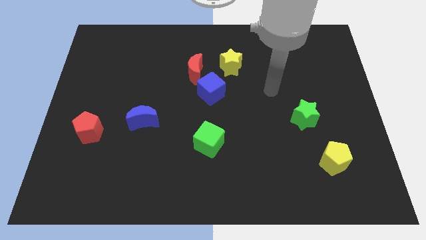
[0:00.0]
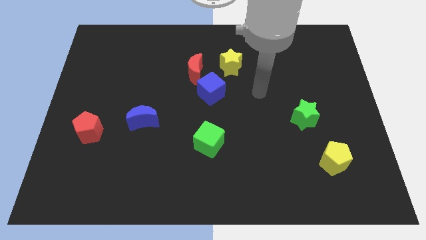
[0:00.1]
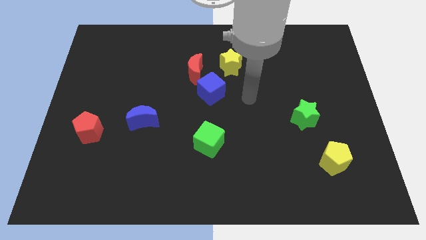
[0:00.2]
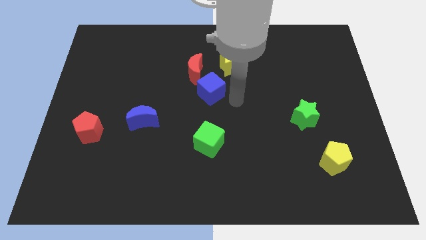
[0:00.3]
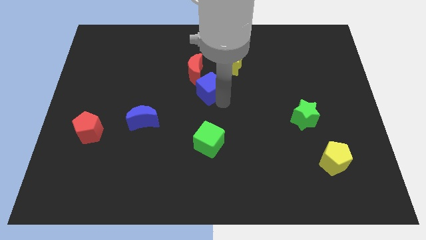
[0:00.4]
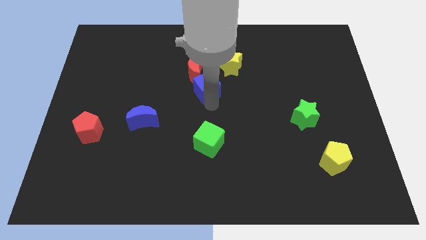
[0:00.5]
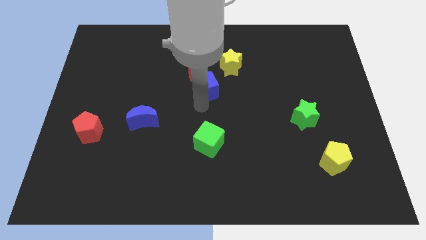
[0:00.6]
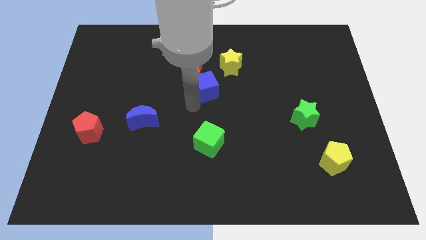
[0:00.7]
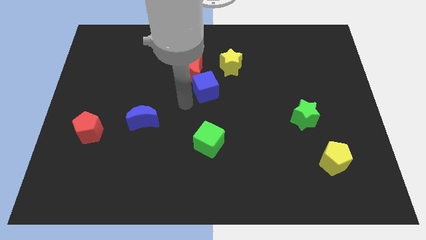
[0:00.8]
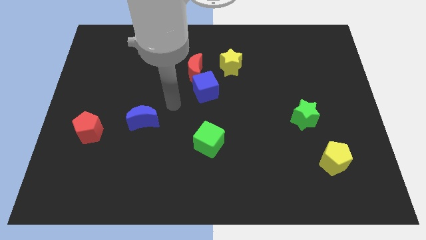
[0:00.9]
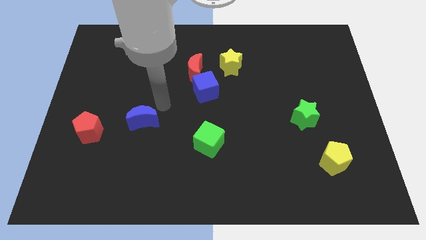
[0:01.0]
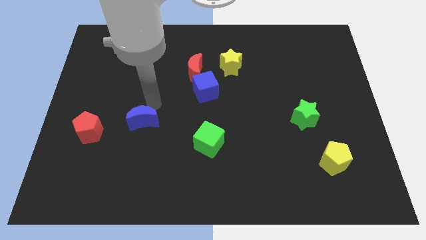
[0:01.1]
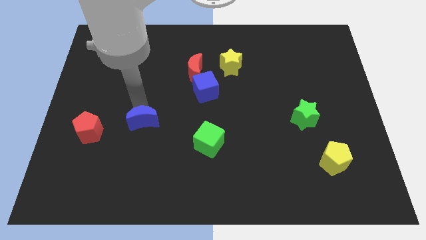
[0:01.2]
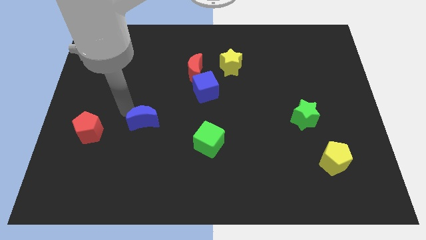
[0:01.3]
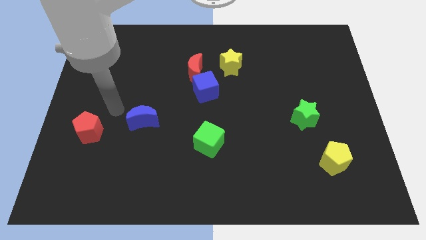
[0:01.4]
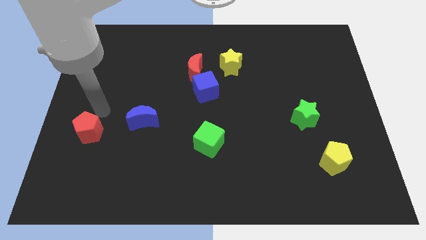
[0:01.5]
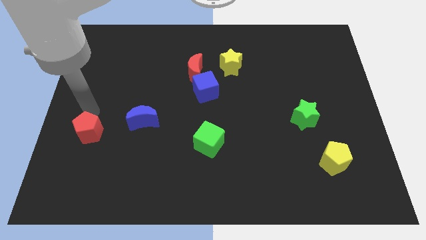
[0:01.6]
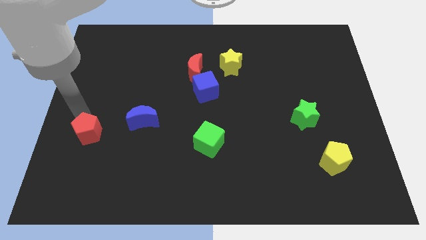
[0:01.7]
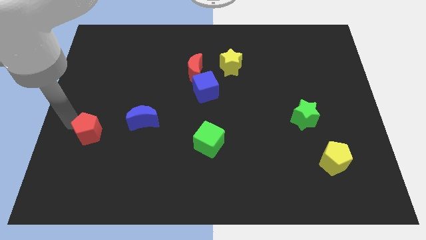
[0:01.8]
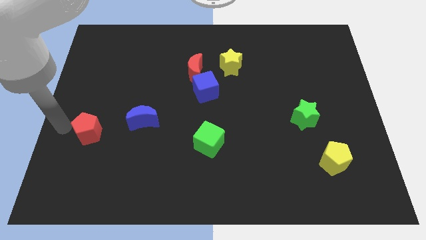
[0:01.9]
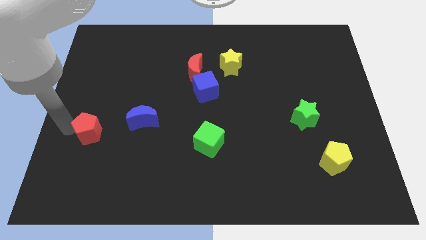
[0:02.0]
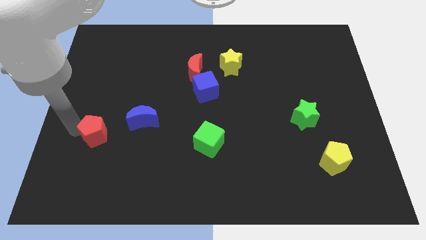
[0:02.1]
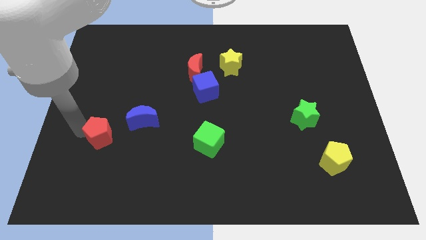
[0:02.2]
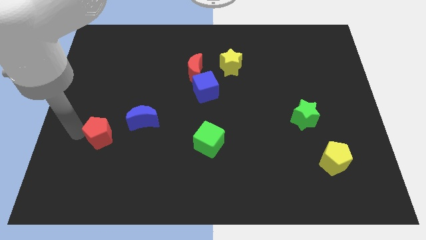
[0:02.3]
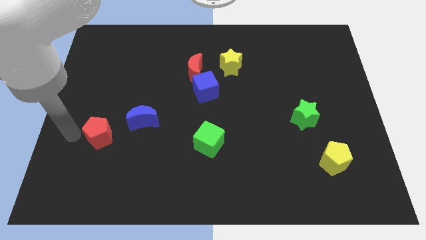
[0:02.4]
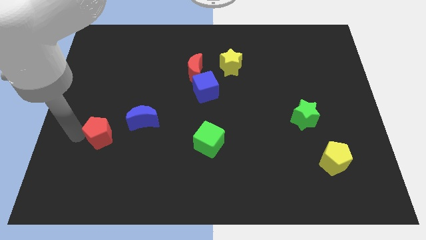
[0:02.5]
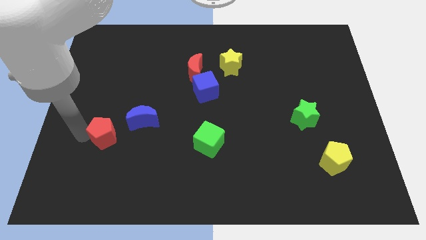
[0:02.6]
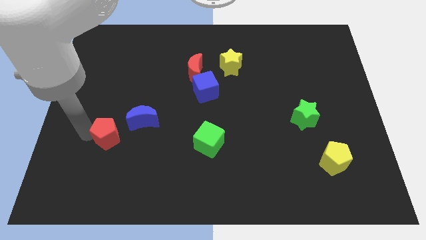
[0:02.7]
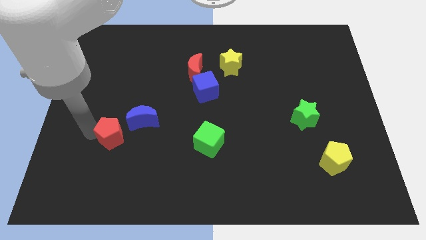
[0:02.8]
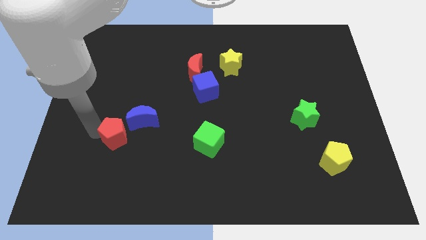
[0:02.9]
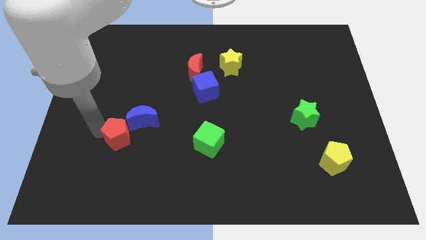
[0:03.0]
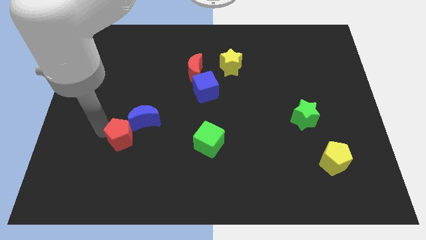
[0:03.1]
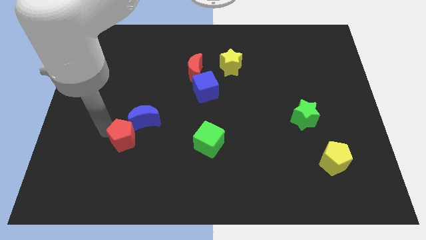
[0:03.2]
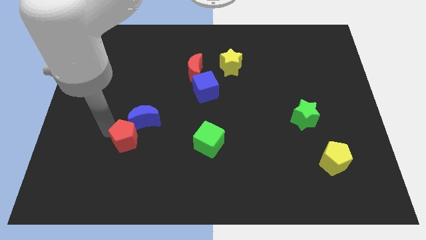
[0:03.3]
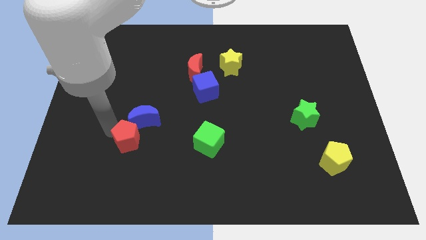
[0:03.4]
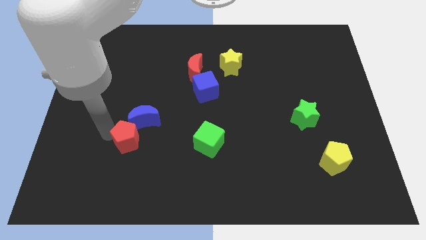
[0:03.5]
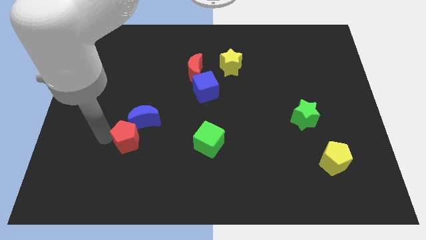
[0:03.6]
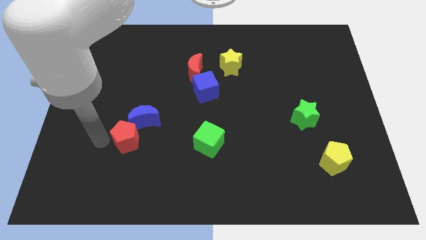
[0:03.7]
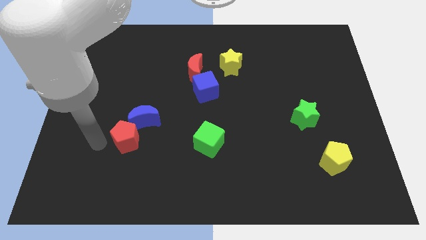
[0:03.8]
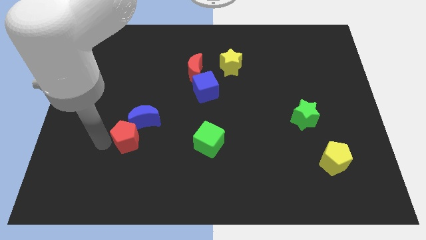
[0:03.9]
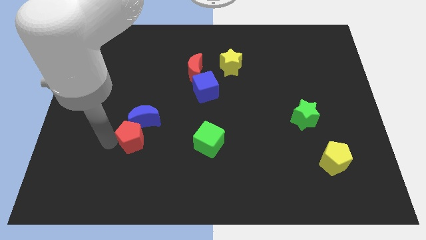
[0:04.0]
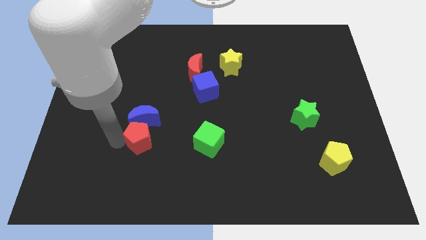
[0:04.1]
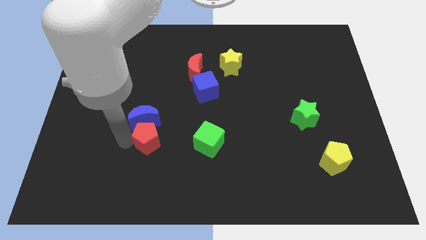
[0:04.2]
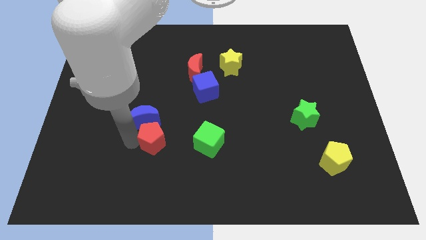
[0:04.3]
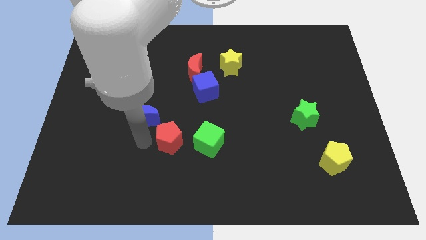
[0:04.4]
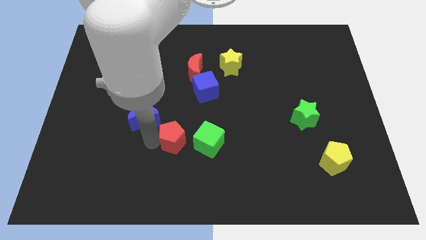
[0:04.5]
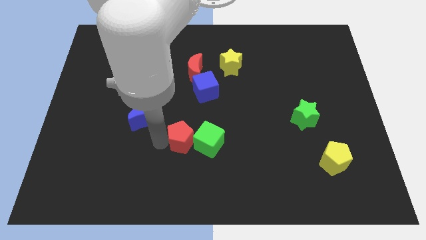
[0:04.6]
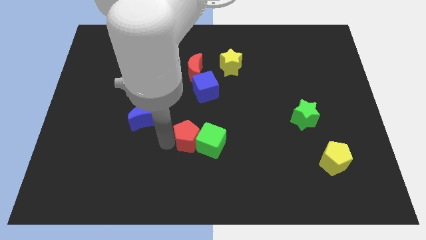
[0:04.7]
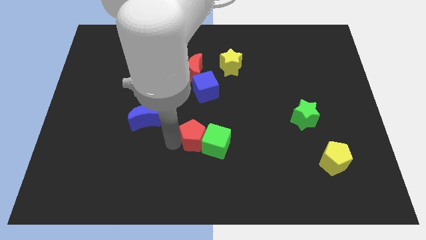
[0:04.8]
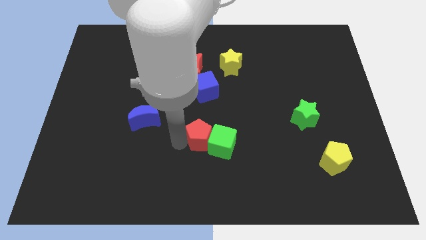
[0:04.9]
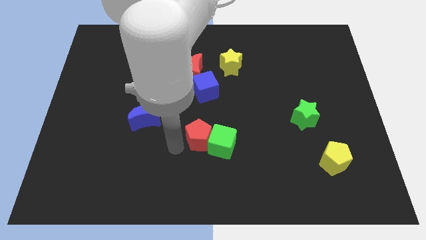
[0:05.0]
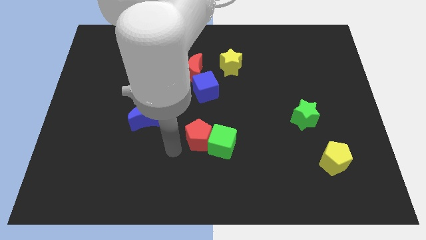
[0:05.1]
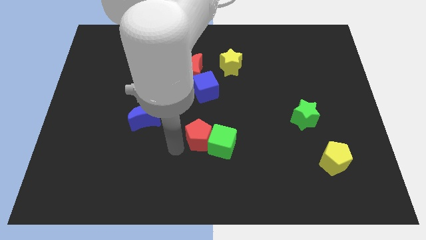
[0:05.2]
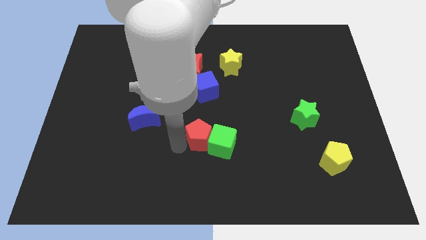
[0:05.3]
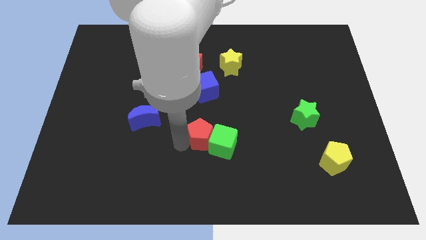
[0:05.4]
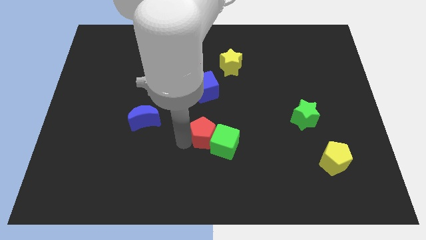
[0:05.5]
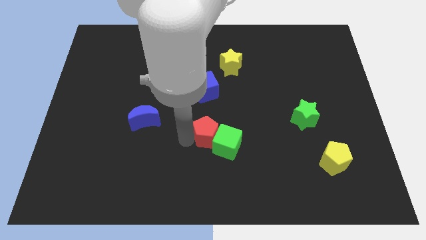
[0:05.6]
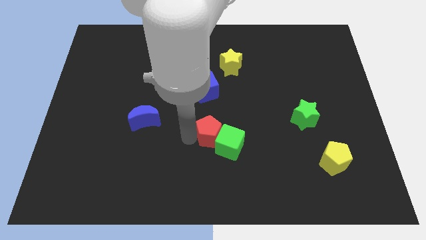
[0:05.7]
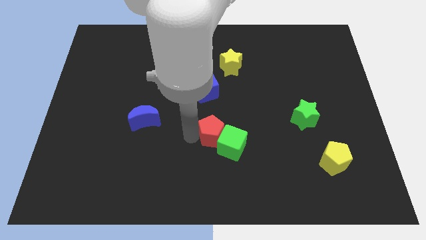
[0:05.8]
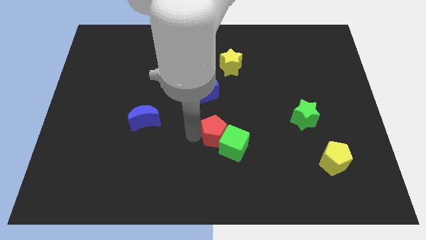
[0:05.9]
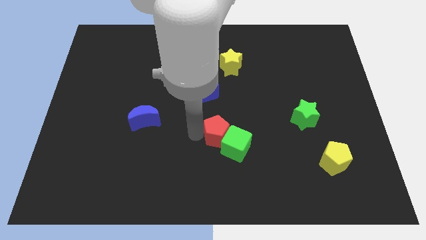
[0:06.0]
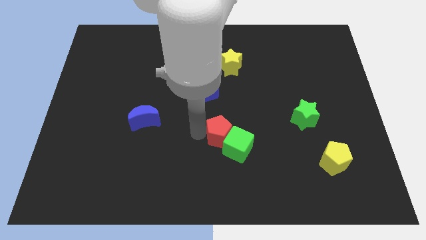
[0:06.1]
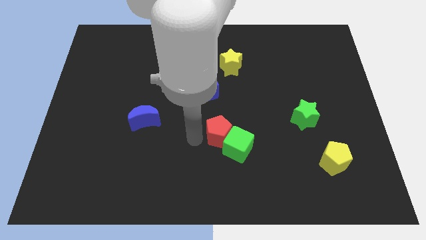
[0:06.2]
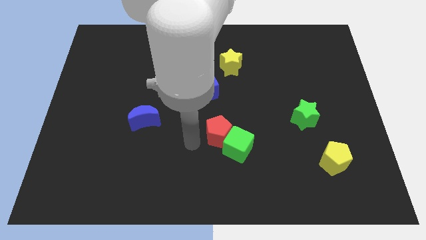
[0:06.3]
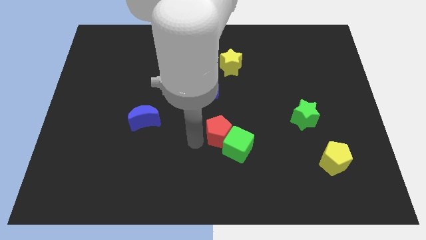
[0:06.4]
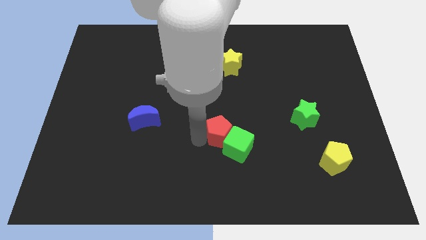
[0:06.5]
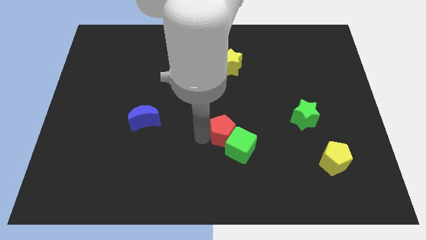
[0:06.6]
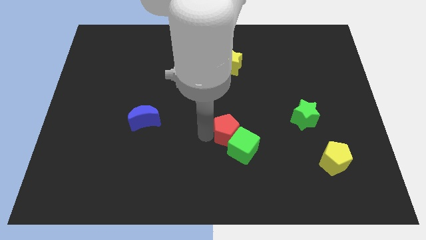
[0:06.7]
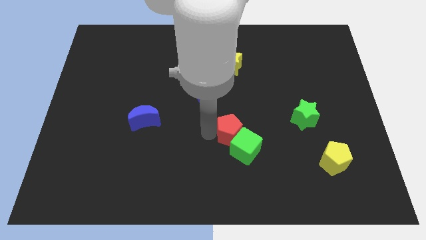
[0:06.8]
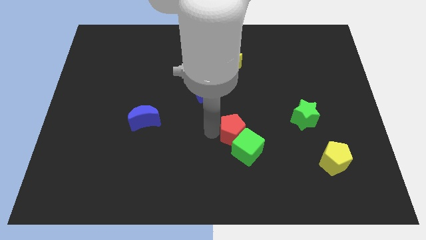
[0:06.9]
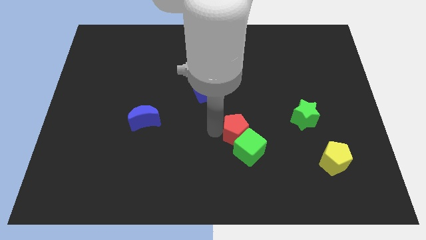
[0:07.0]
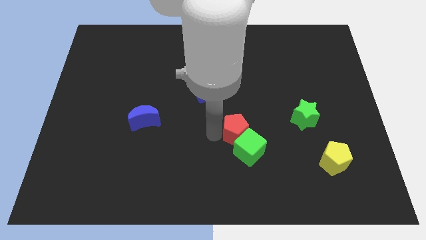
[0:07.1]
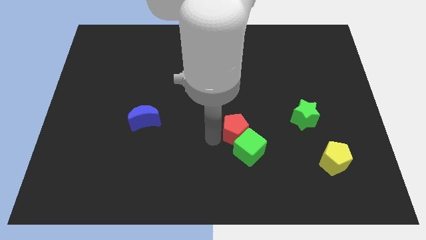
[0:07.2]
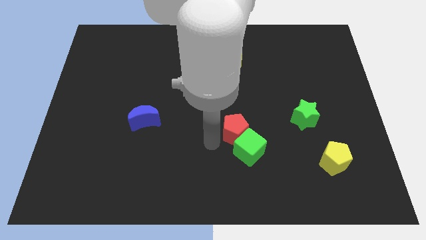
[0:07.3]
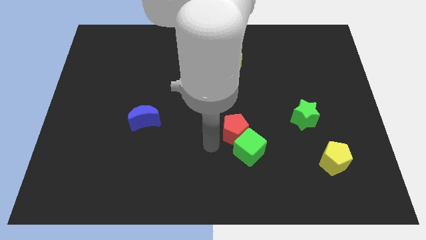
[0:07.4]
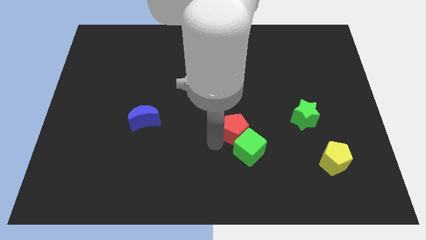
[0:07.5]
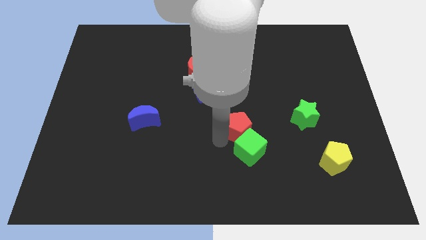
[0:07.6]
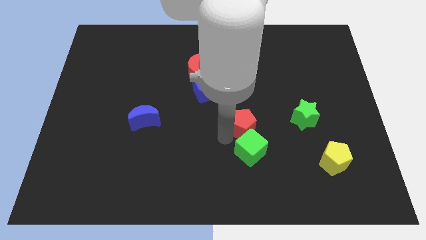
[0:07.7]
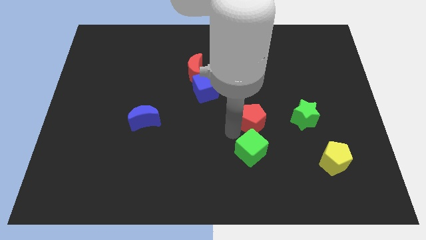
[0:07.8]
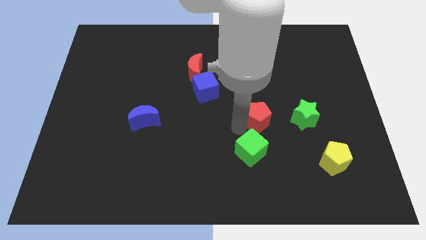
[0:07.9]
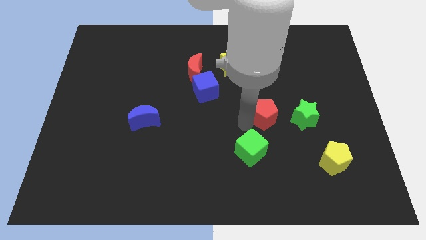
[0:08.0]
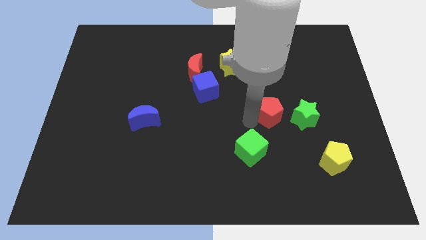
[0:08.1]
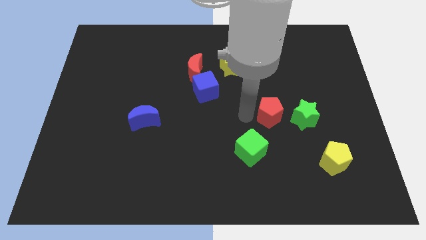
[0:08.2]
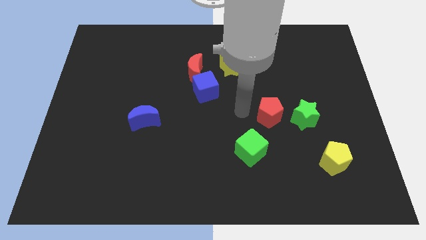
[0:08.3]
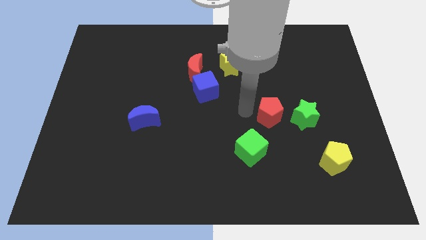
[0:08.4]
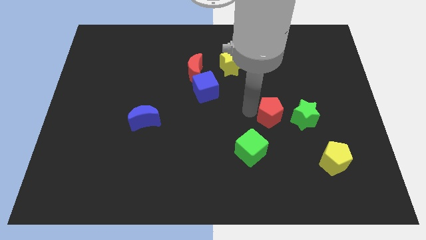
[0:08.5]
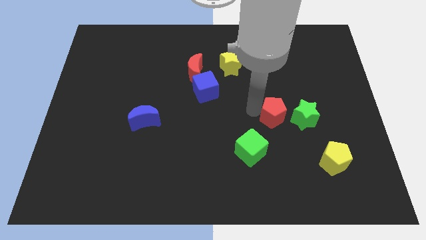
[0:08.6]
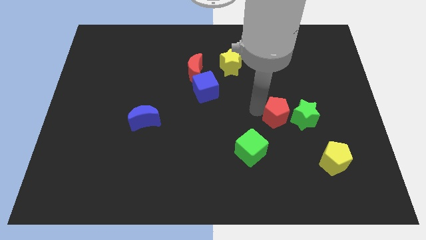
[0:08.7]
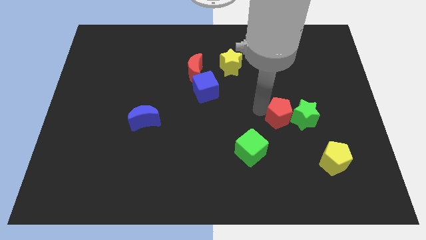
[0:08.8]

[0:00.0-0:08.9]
move the red pentagon to the green star
